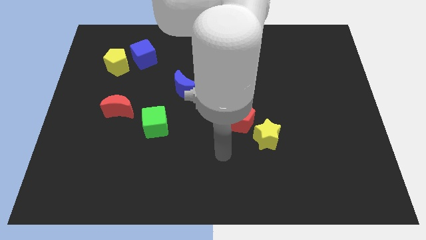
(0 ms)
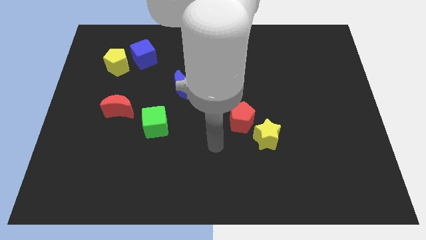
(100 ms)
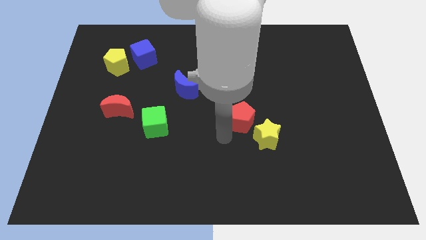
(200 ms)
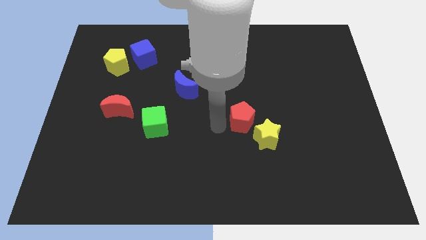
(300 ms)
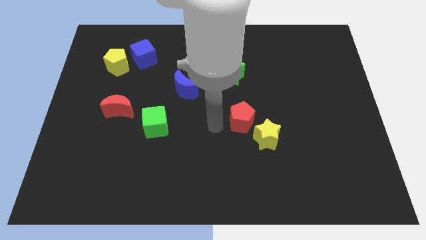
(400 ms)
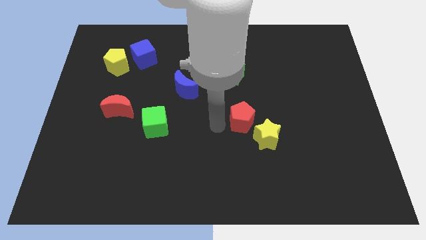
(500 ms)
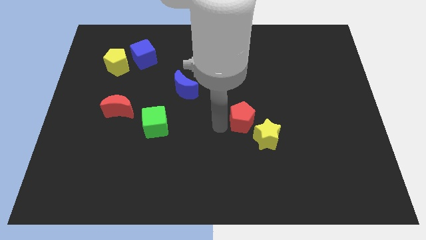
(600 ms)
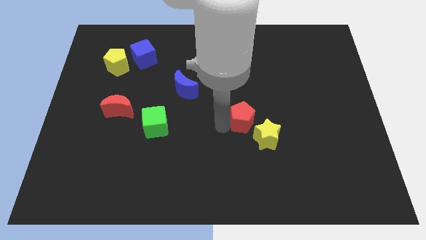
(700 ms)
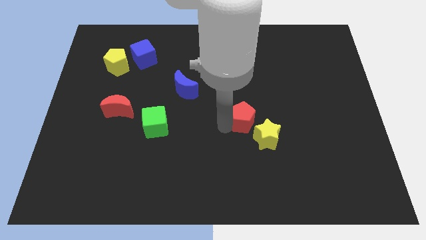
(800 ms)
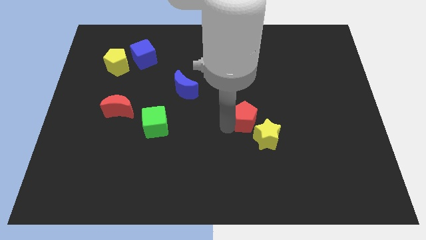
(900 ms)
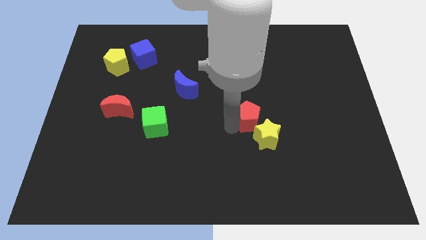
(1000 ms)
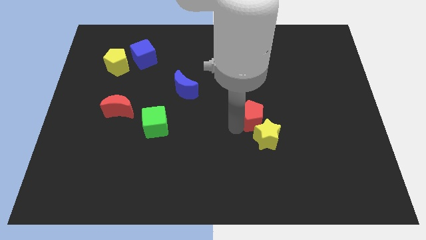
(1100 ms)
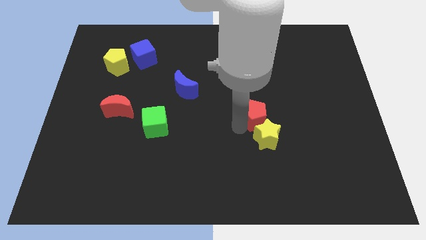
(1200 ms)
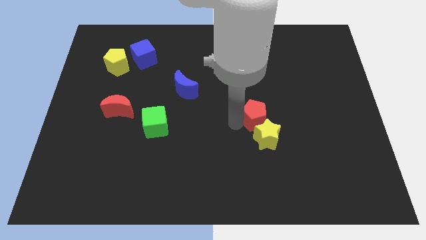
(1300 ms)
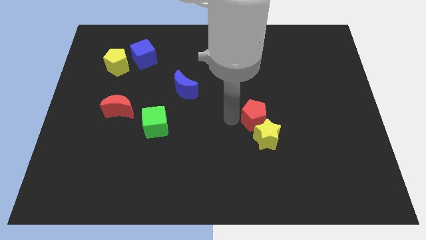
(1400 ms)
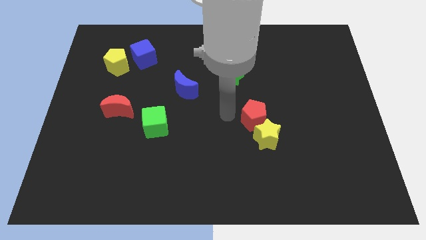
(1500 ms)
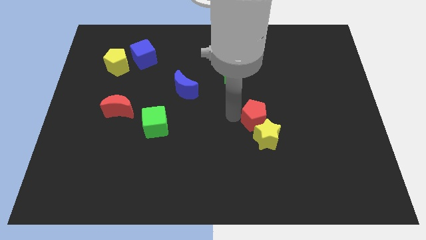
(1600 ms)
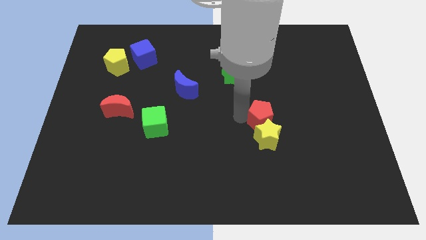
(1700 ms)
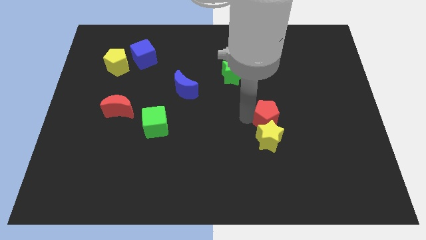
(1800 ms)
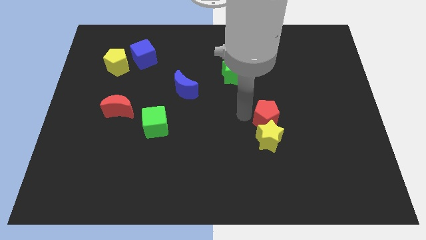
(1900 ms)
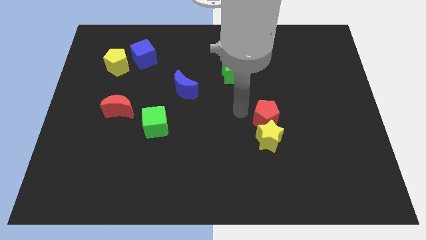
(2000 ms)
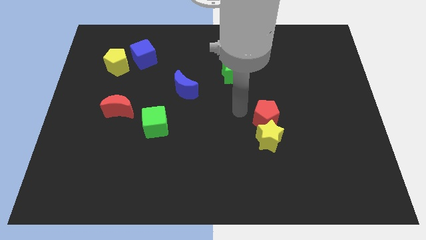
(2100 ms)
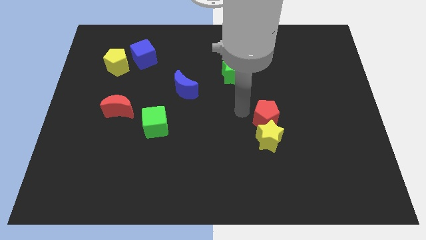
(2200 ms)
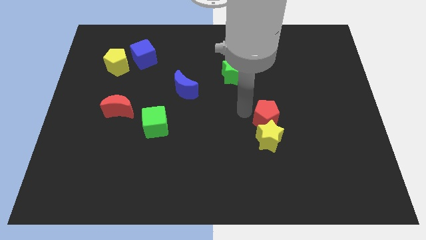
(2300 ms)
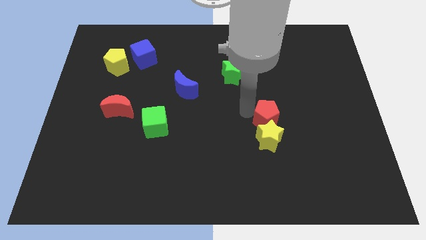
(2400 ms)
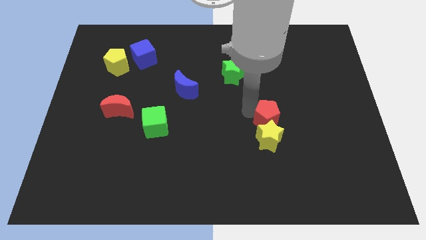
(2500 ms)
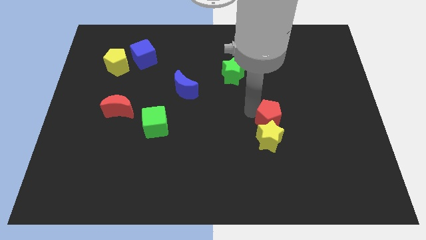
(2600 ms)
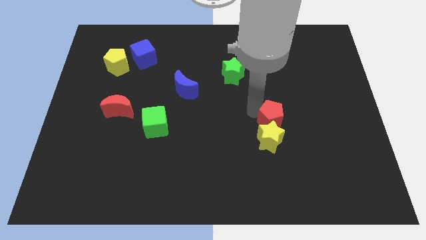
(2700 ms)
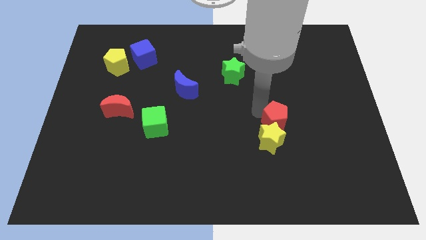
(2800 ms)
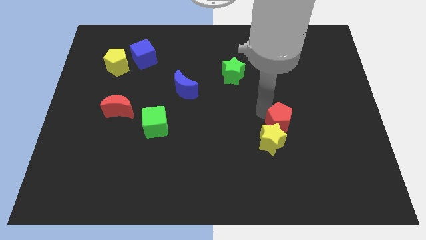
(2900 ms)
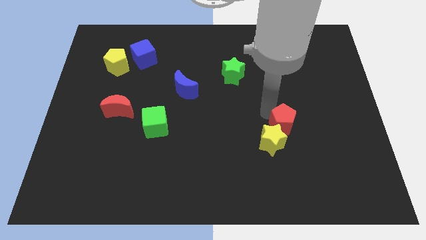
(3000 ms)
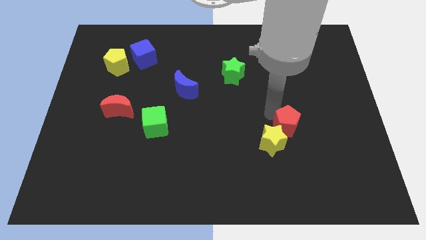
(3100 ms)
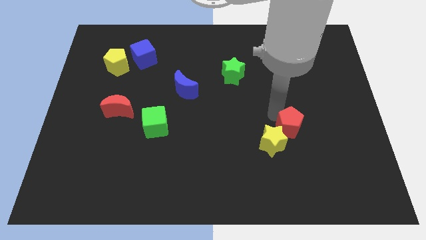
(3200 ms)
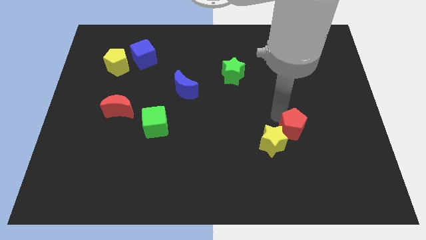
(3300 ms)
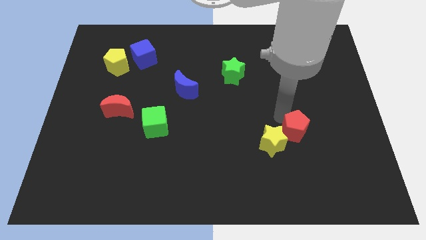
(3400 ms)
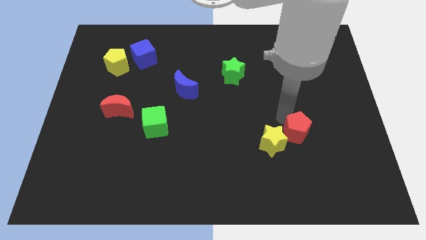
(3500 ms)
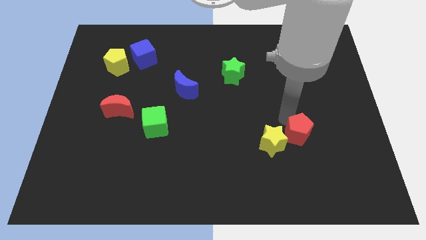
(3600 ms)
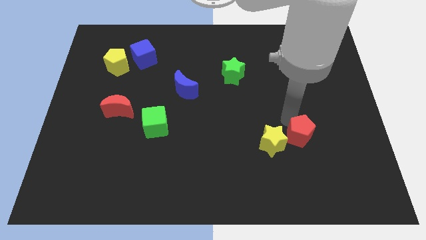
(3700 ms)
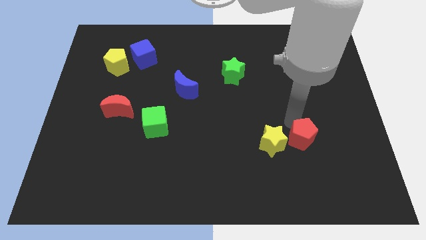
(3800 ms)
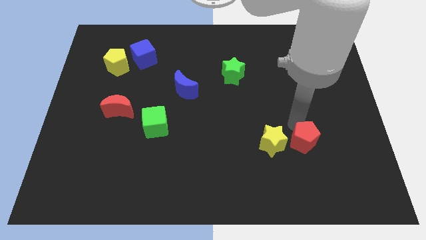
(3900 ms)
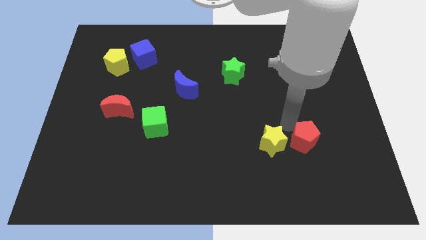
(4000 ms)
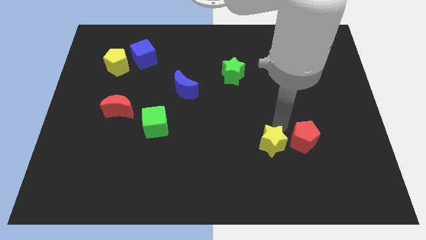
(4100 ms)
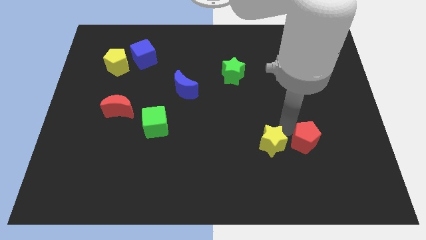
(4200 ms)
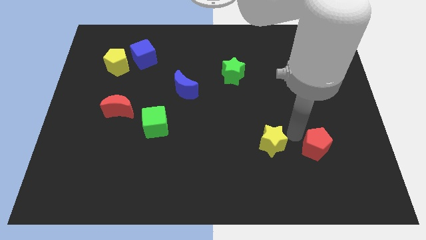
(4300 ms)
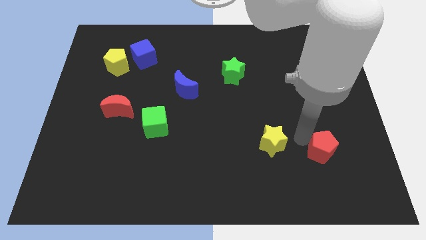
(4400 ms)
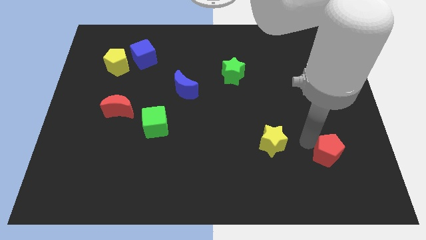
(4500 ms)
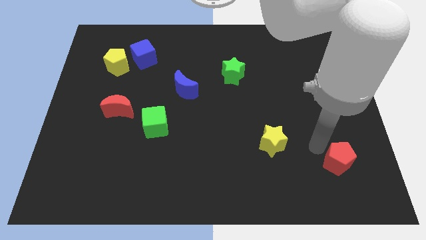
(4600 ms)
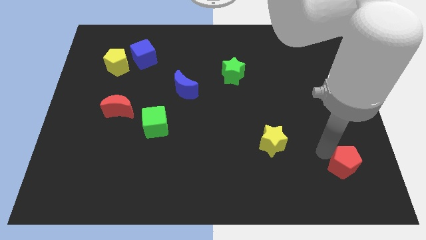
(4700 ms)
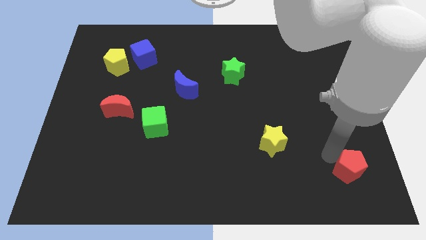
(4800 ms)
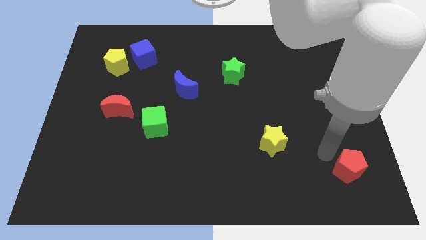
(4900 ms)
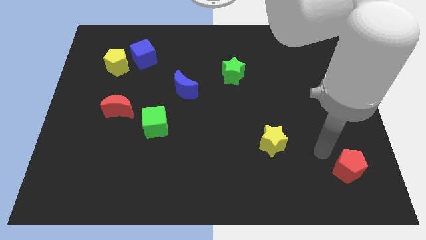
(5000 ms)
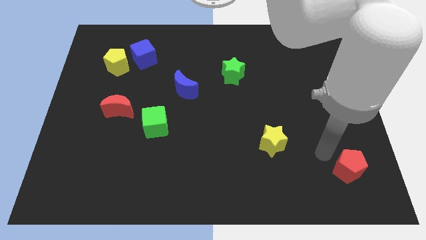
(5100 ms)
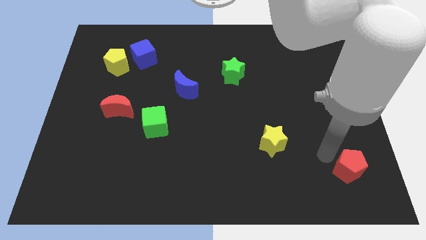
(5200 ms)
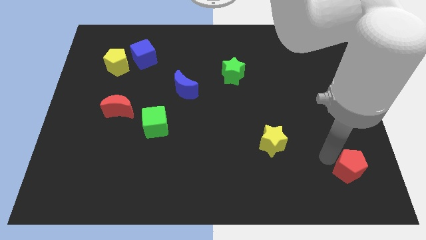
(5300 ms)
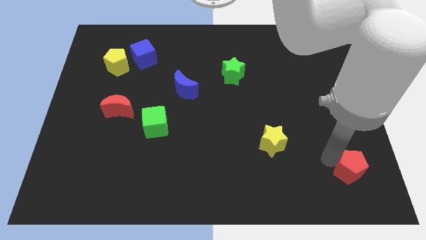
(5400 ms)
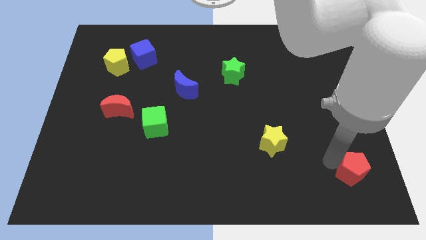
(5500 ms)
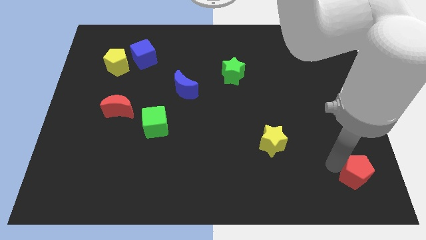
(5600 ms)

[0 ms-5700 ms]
slide the red pentagon to the bottom right corner
